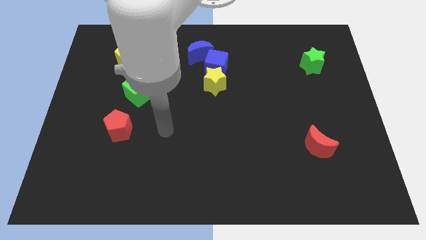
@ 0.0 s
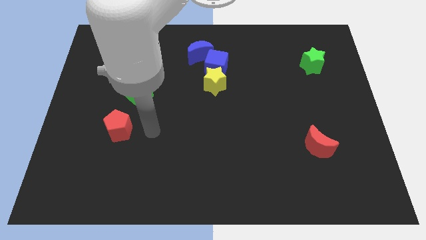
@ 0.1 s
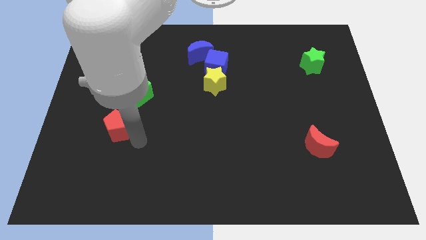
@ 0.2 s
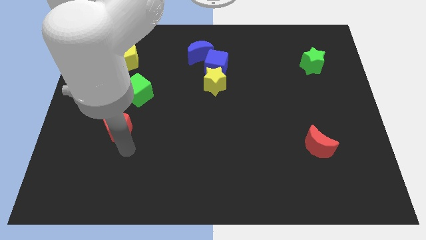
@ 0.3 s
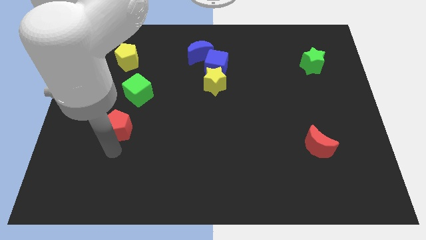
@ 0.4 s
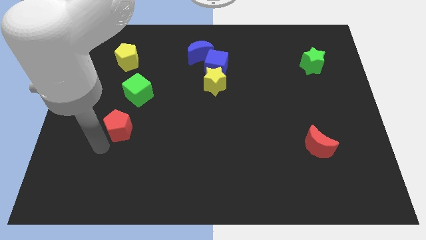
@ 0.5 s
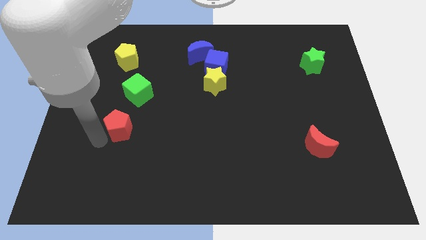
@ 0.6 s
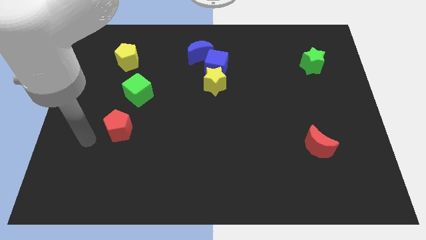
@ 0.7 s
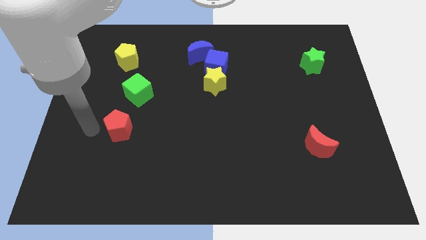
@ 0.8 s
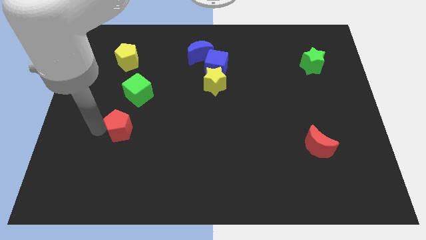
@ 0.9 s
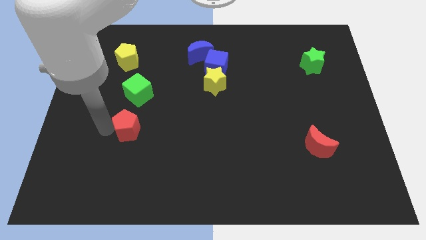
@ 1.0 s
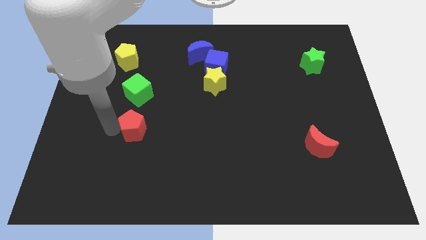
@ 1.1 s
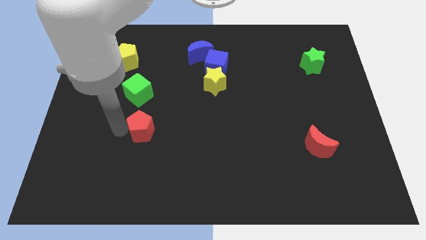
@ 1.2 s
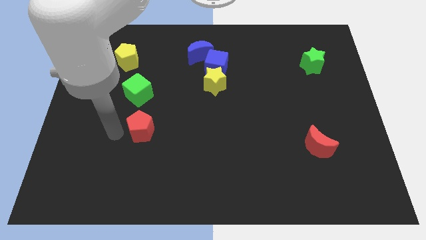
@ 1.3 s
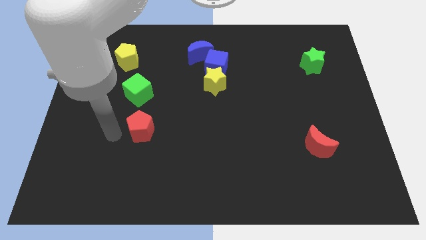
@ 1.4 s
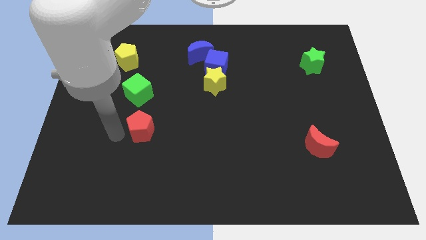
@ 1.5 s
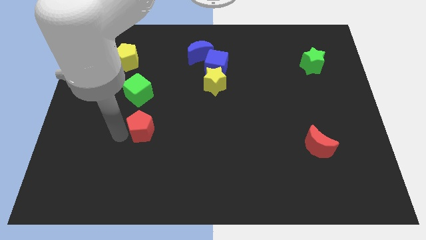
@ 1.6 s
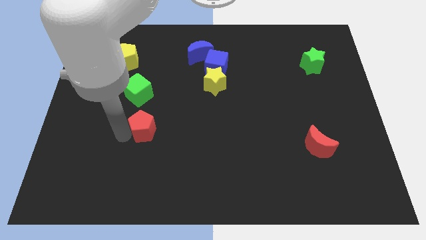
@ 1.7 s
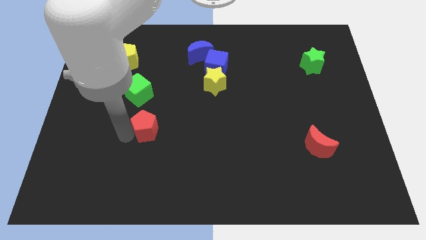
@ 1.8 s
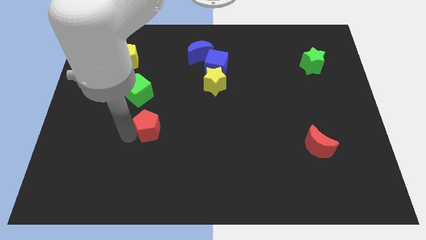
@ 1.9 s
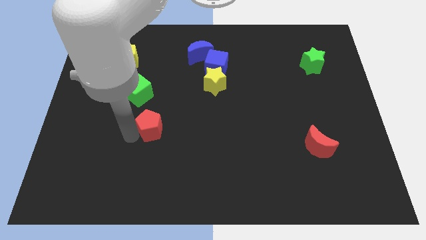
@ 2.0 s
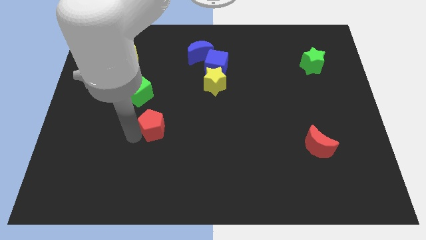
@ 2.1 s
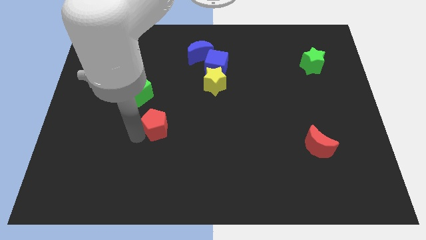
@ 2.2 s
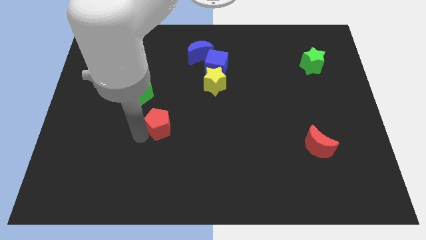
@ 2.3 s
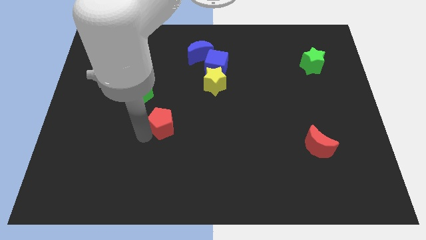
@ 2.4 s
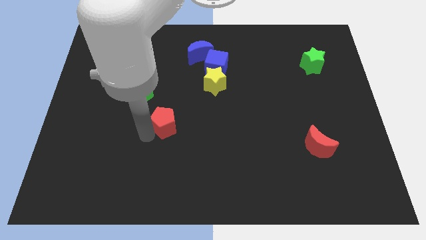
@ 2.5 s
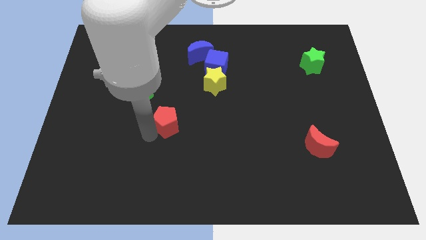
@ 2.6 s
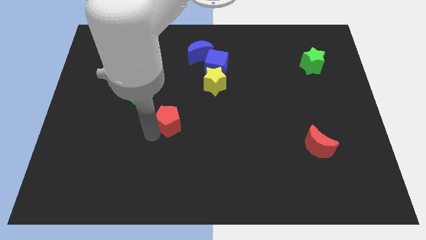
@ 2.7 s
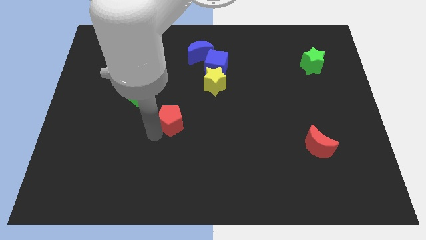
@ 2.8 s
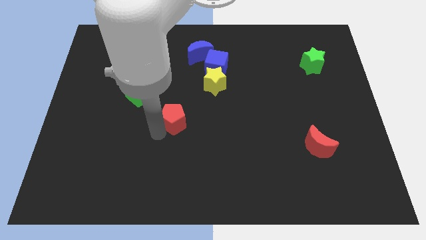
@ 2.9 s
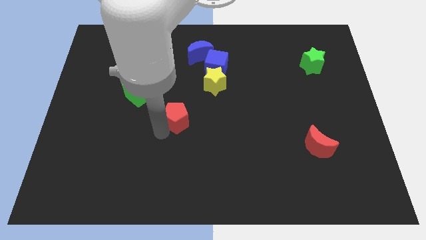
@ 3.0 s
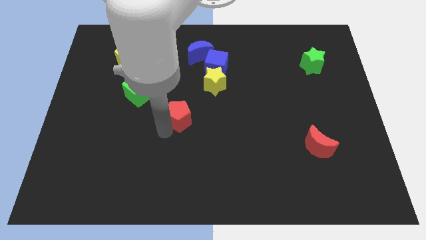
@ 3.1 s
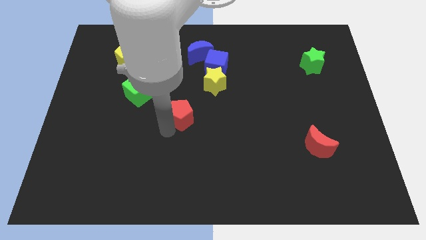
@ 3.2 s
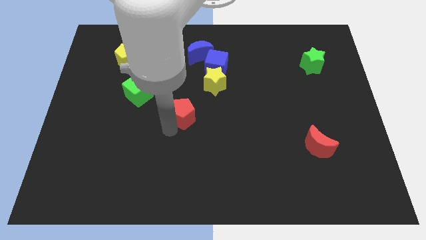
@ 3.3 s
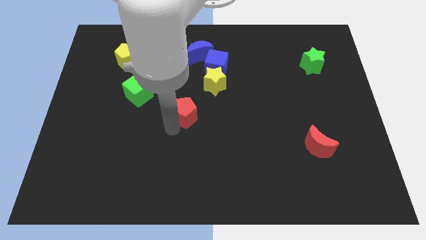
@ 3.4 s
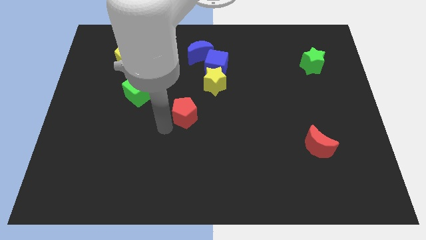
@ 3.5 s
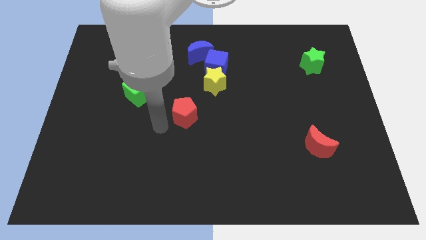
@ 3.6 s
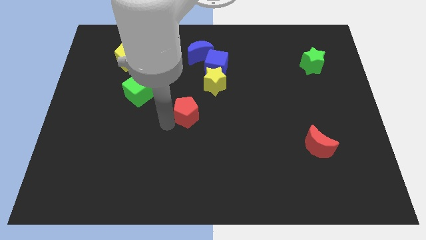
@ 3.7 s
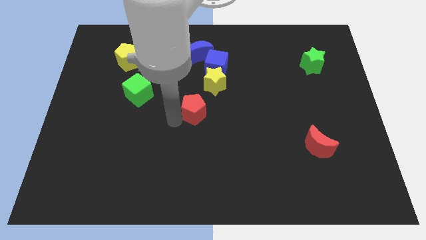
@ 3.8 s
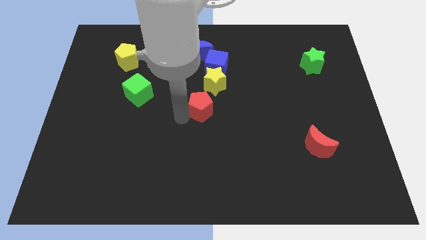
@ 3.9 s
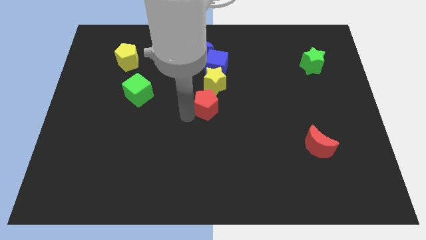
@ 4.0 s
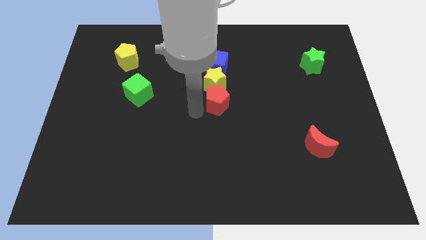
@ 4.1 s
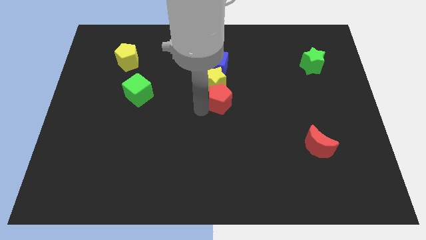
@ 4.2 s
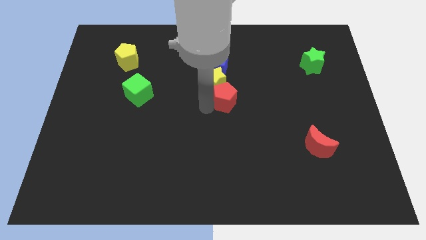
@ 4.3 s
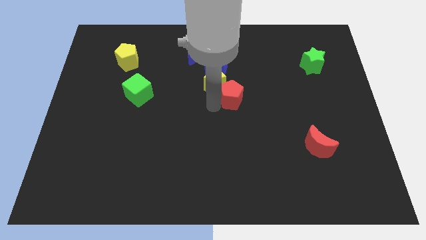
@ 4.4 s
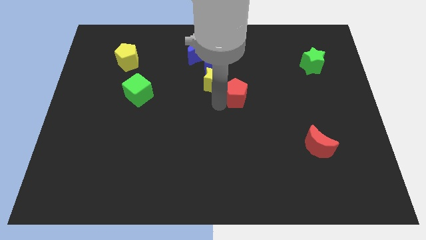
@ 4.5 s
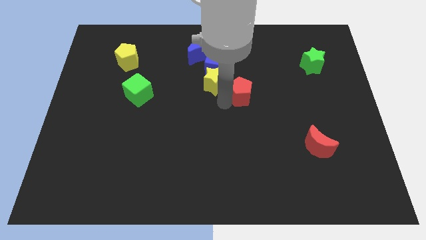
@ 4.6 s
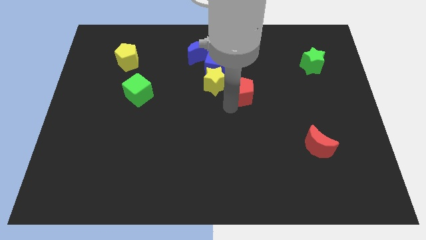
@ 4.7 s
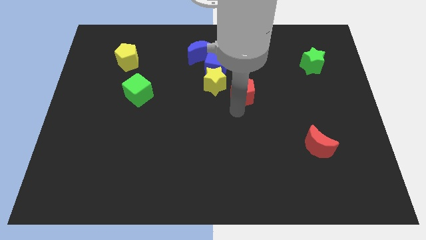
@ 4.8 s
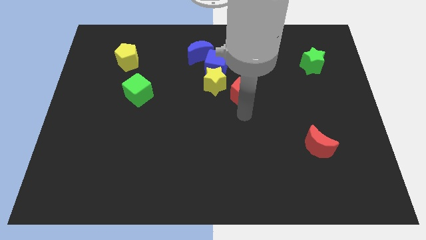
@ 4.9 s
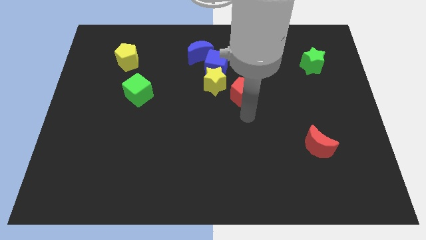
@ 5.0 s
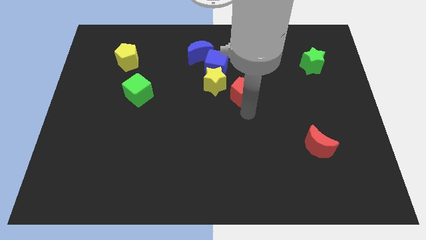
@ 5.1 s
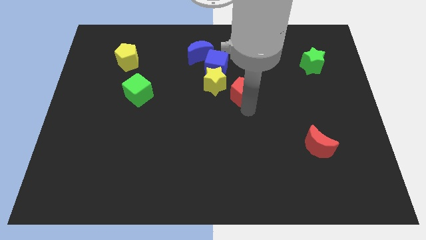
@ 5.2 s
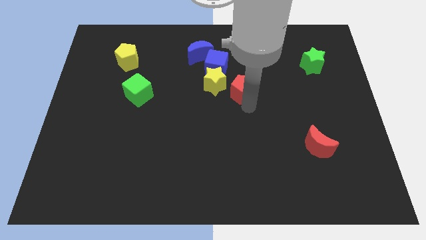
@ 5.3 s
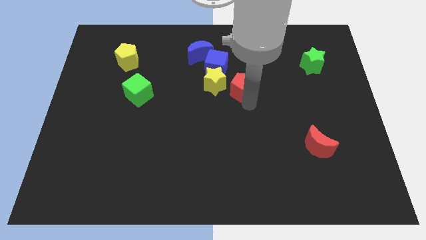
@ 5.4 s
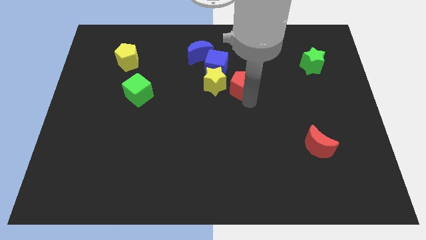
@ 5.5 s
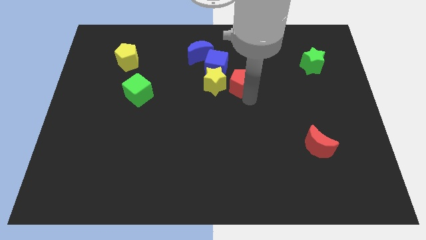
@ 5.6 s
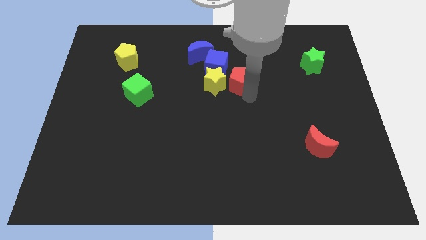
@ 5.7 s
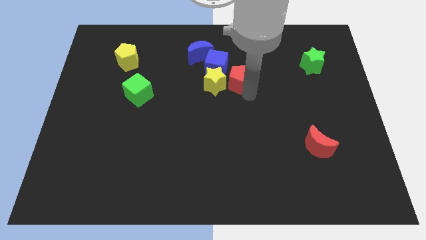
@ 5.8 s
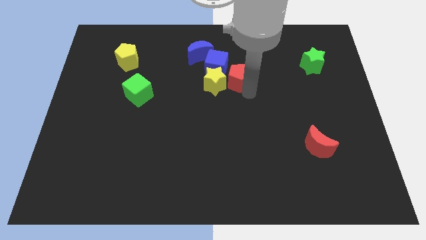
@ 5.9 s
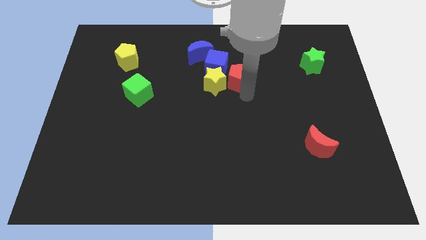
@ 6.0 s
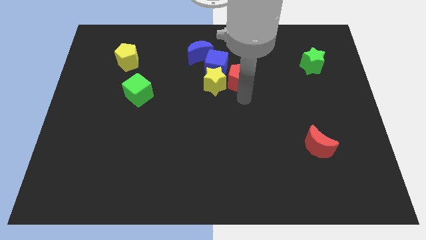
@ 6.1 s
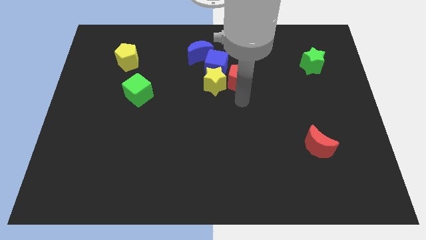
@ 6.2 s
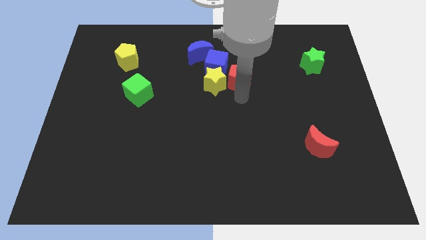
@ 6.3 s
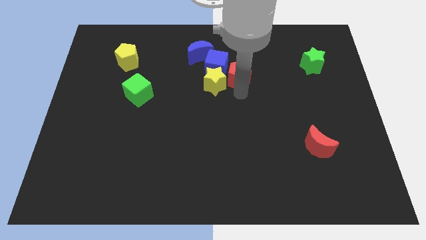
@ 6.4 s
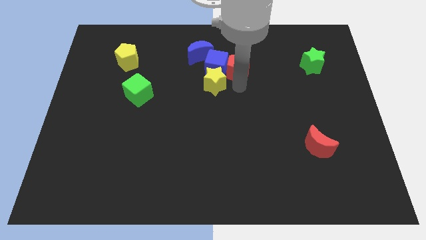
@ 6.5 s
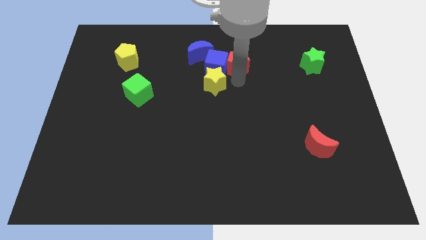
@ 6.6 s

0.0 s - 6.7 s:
slide the red pentagon to the right side of the blue moon

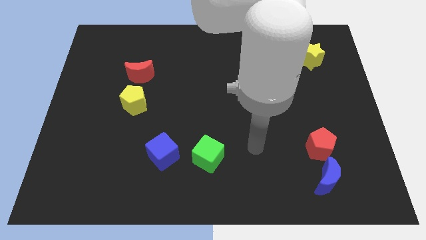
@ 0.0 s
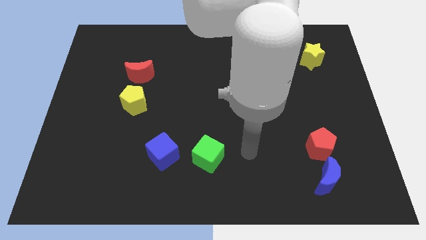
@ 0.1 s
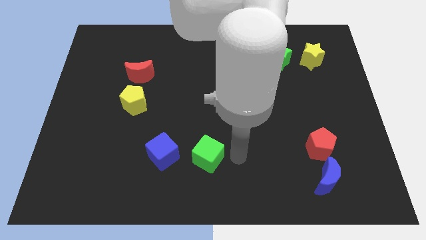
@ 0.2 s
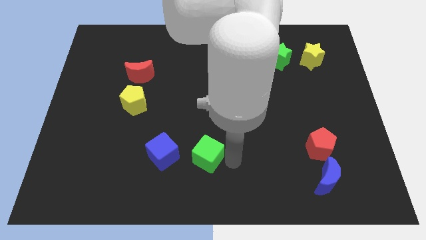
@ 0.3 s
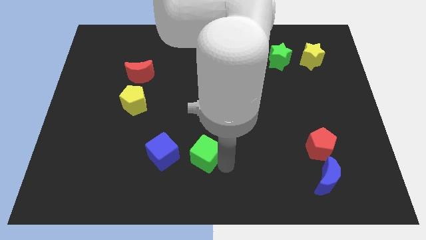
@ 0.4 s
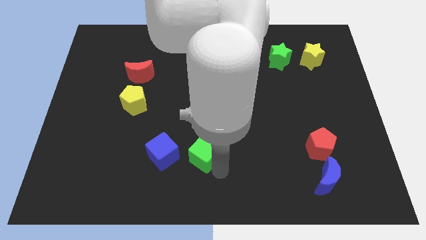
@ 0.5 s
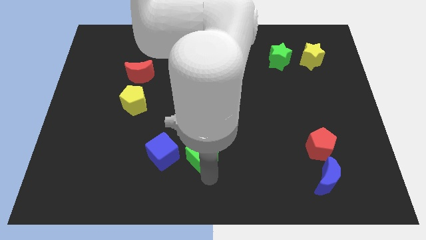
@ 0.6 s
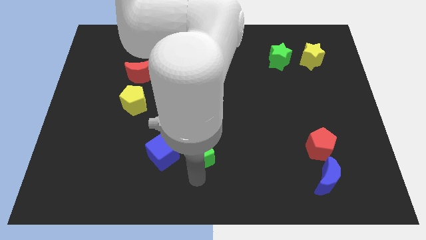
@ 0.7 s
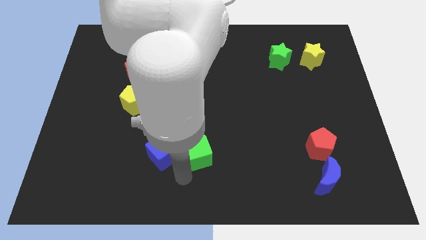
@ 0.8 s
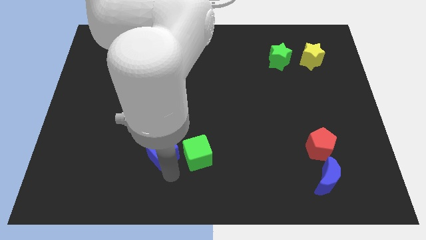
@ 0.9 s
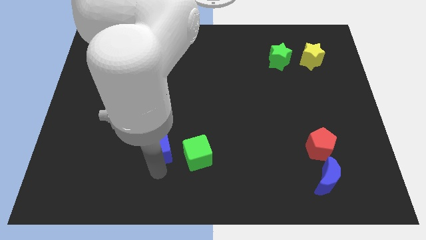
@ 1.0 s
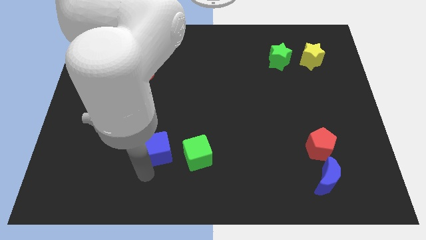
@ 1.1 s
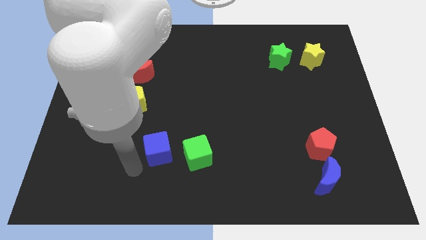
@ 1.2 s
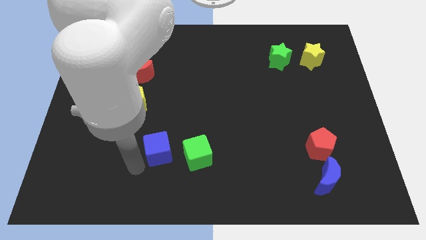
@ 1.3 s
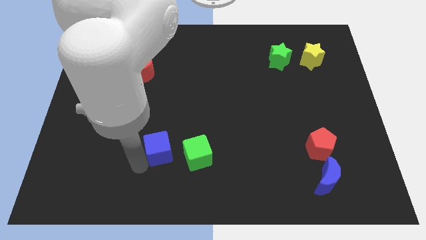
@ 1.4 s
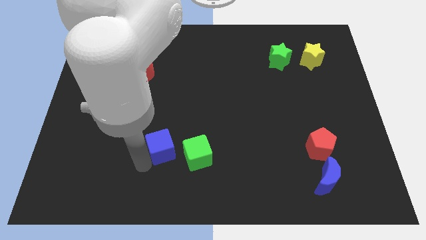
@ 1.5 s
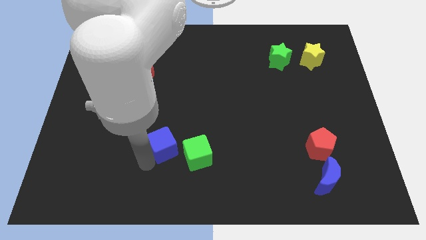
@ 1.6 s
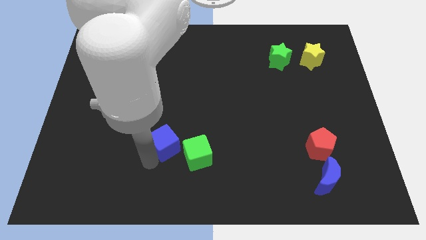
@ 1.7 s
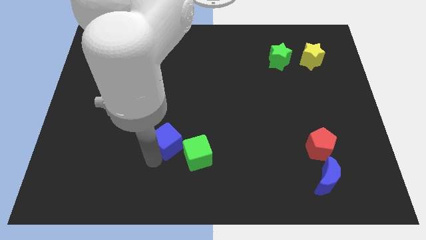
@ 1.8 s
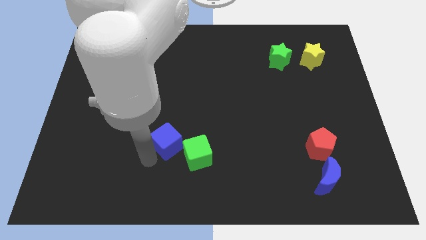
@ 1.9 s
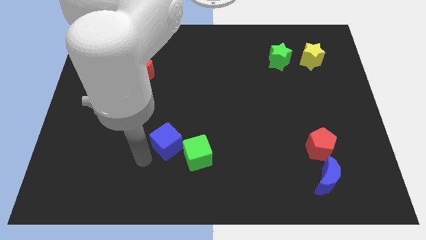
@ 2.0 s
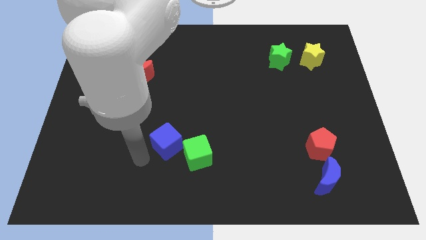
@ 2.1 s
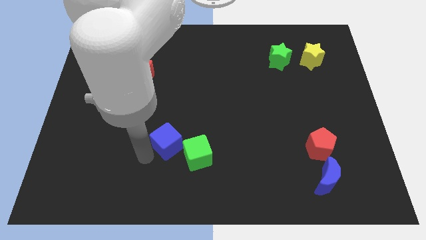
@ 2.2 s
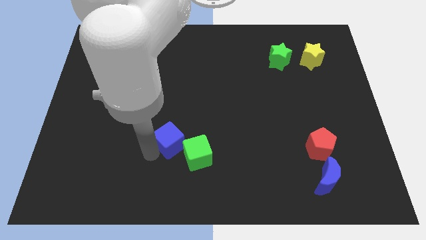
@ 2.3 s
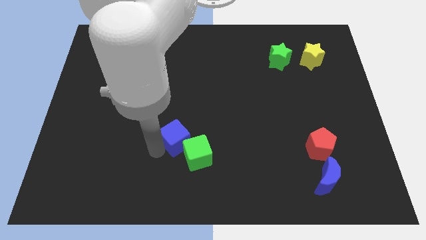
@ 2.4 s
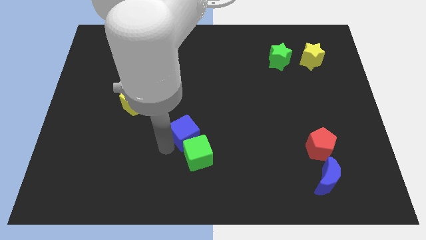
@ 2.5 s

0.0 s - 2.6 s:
put the blue cube to the top side of the green cube
